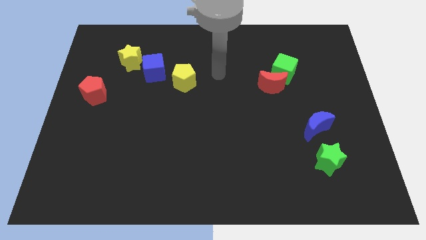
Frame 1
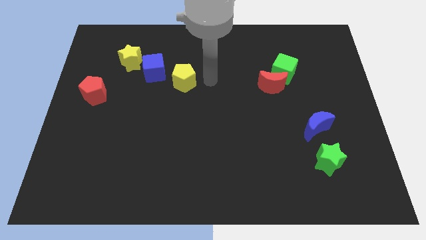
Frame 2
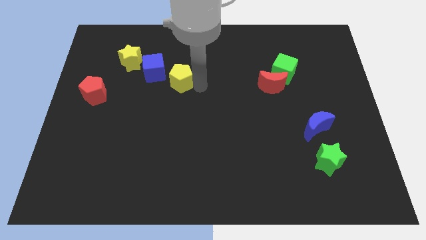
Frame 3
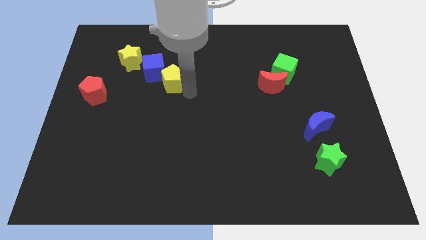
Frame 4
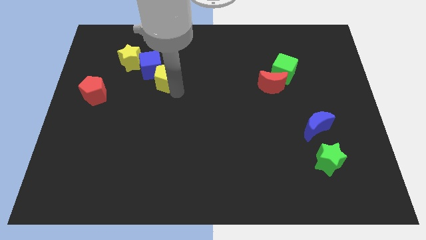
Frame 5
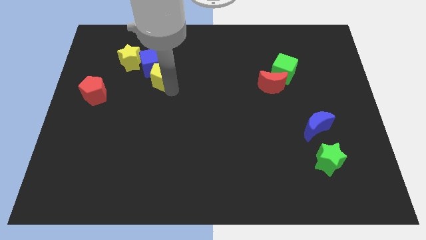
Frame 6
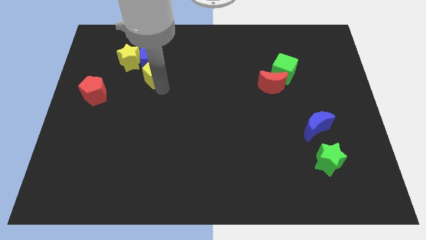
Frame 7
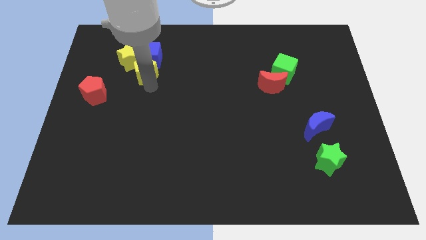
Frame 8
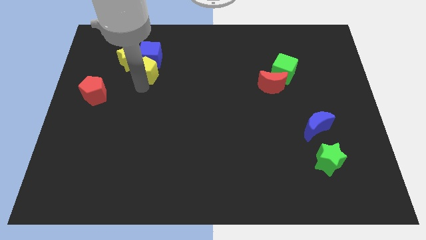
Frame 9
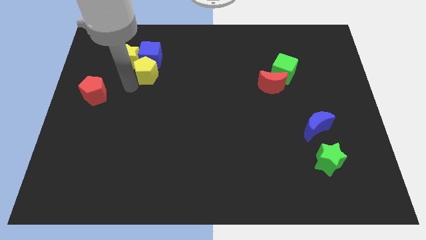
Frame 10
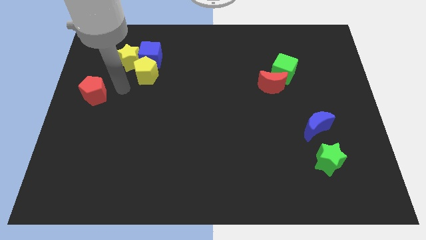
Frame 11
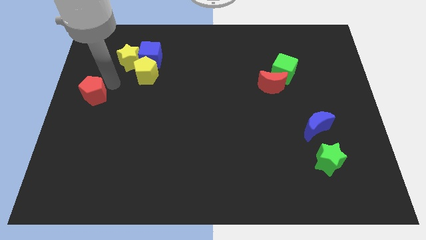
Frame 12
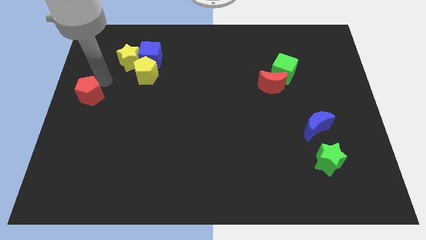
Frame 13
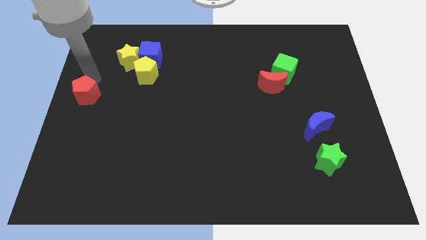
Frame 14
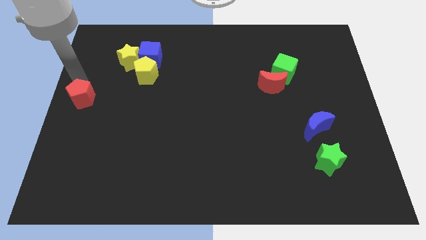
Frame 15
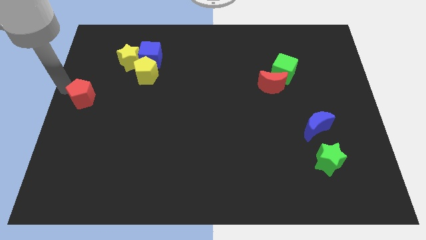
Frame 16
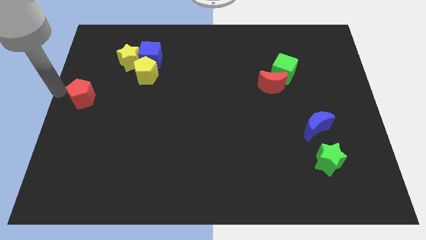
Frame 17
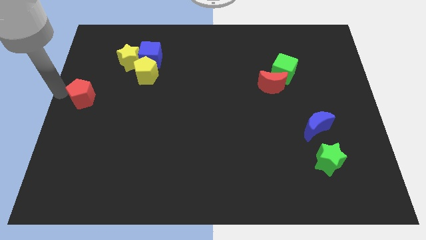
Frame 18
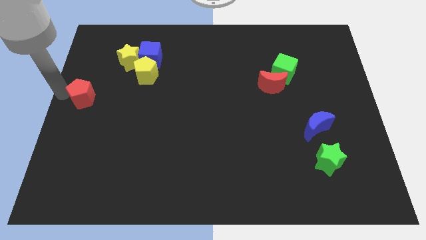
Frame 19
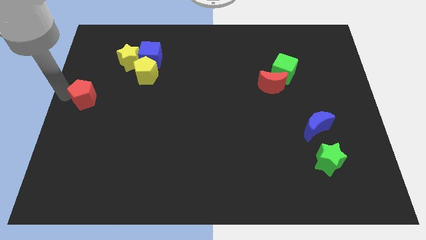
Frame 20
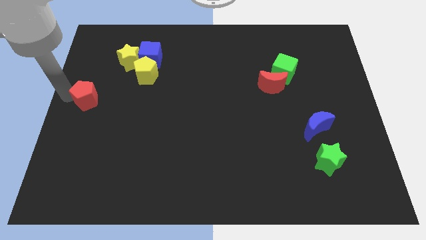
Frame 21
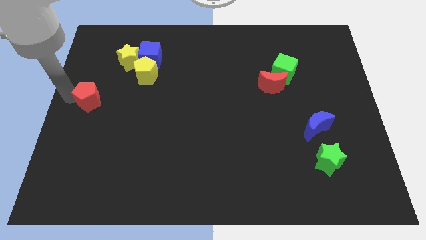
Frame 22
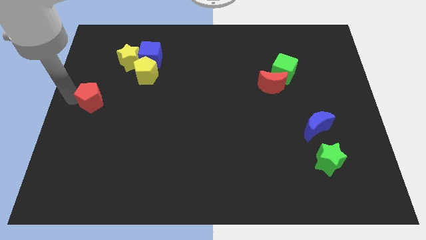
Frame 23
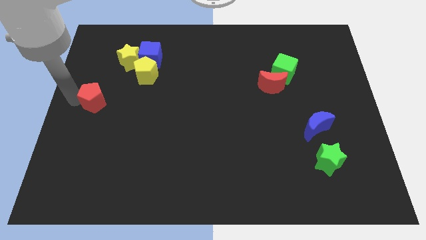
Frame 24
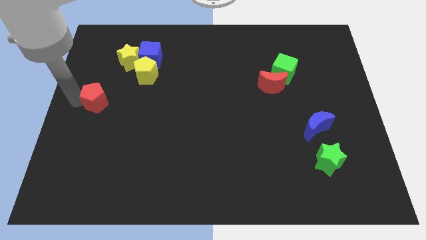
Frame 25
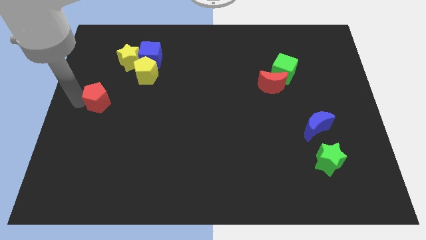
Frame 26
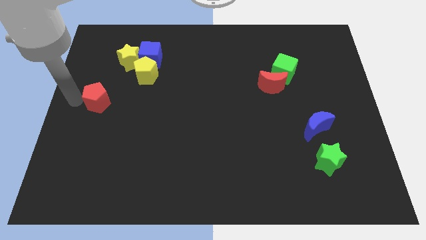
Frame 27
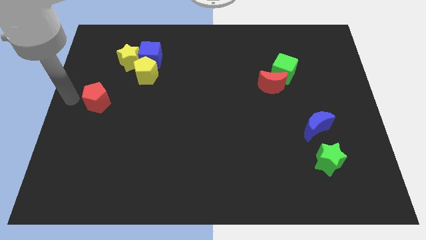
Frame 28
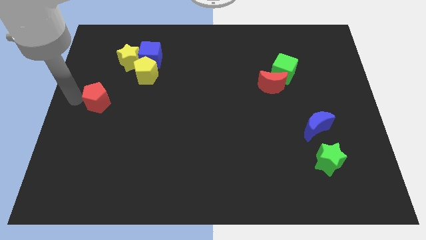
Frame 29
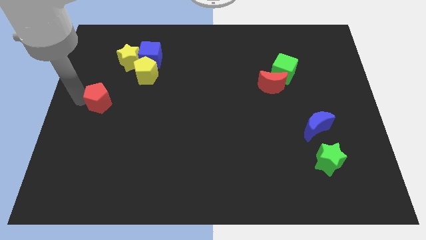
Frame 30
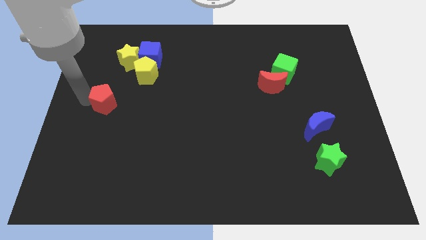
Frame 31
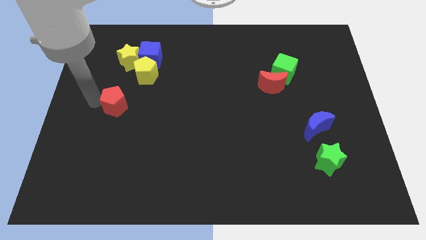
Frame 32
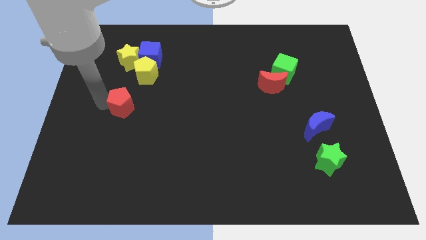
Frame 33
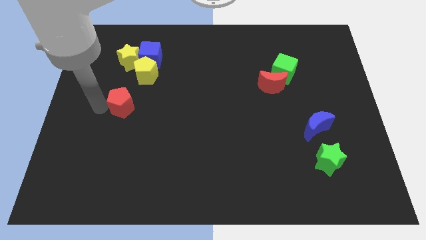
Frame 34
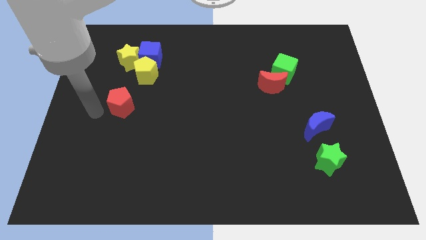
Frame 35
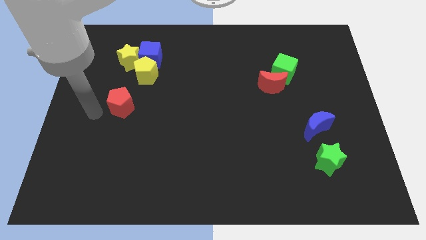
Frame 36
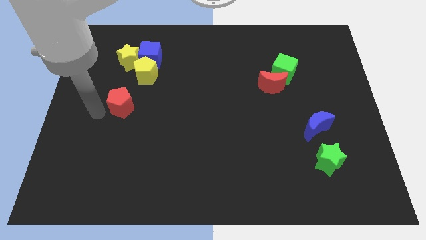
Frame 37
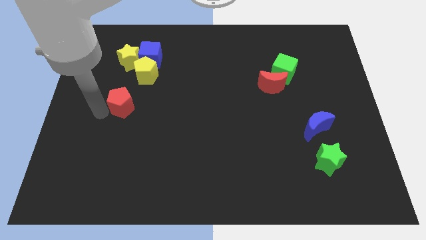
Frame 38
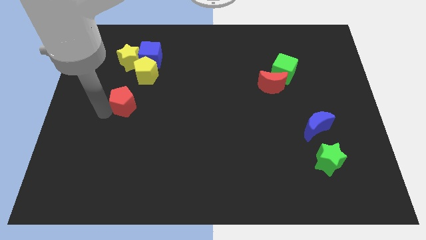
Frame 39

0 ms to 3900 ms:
slide the red pentagon a bit to the right

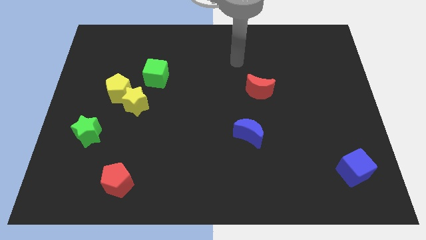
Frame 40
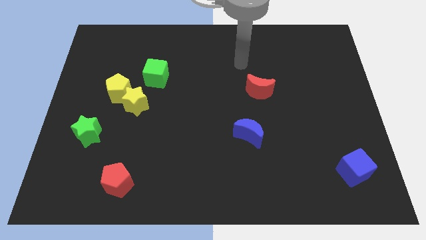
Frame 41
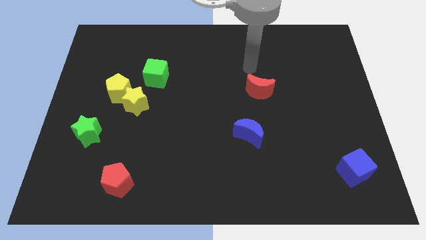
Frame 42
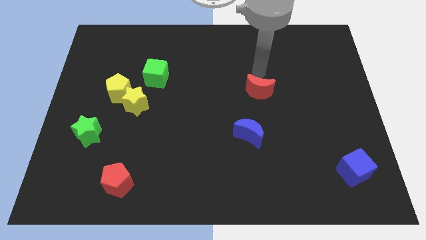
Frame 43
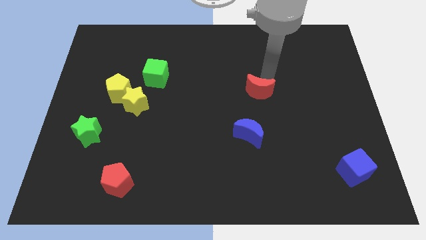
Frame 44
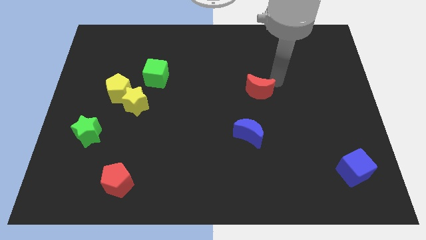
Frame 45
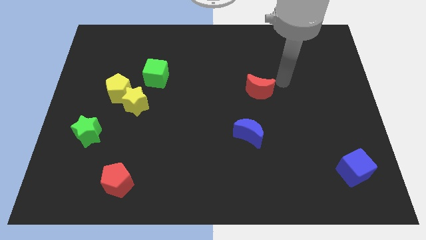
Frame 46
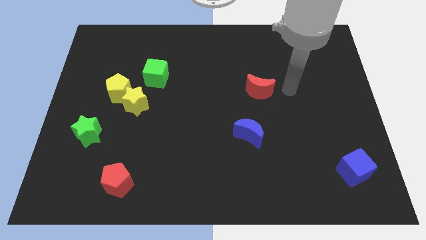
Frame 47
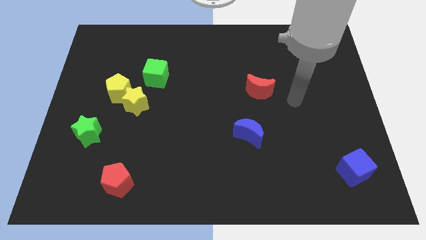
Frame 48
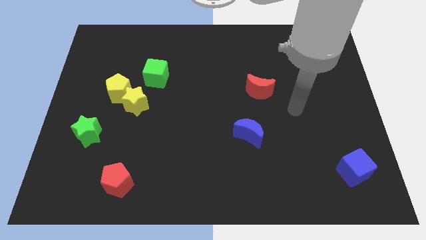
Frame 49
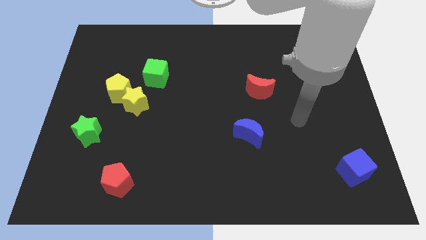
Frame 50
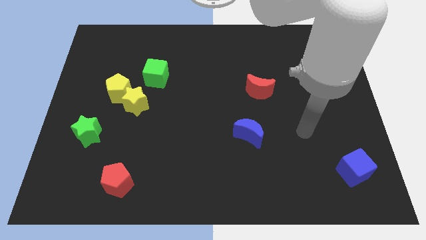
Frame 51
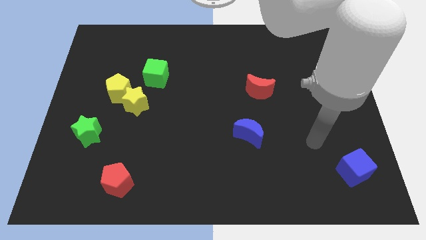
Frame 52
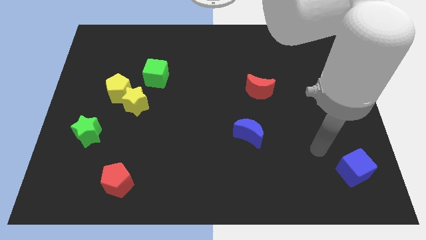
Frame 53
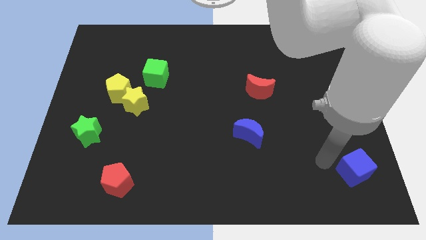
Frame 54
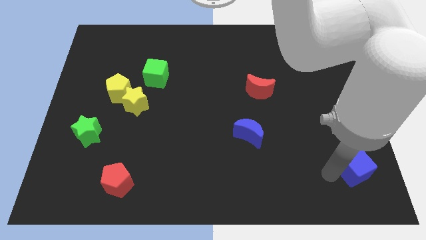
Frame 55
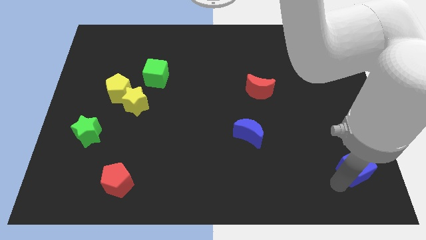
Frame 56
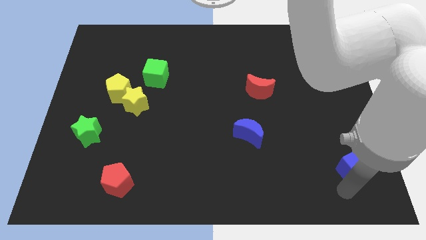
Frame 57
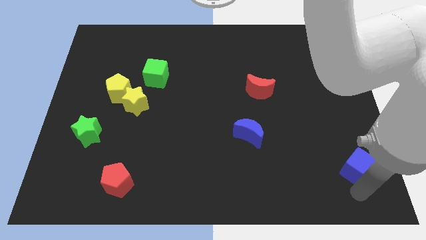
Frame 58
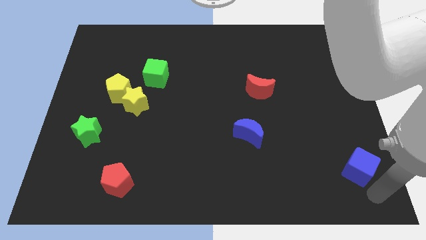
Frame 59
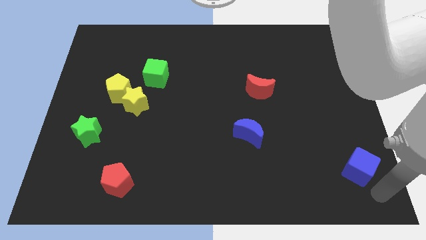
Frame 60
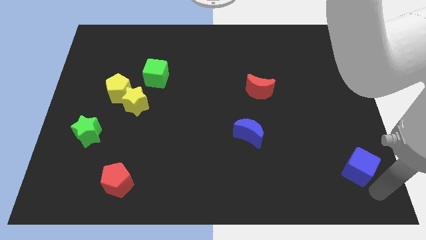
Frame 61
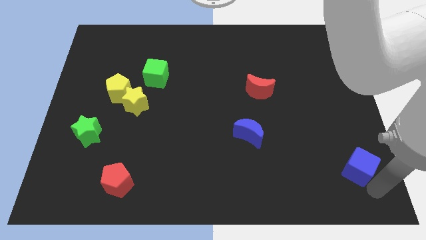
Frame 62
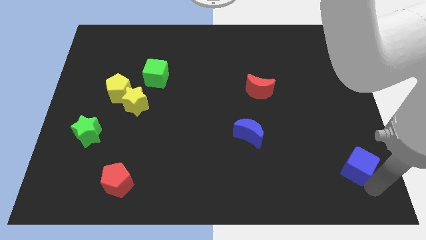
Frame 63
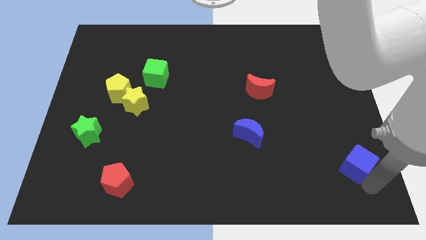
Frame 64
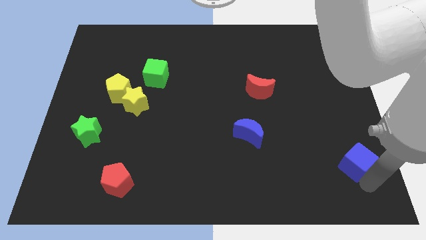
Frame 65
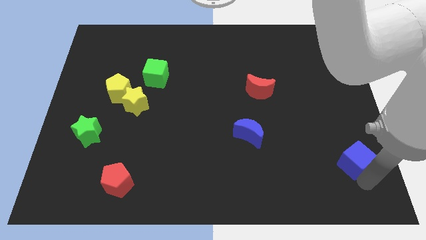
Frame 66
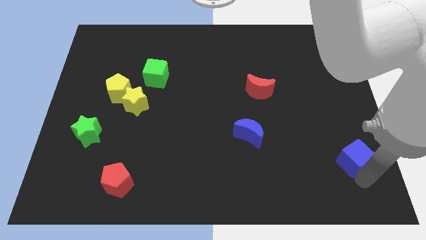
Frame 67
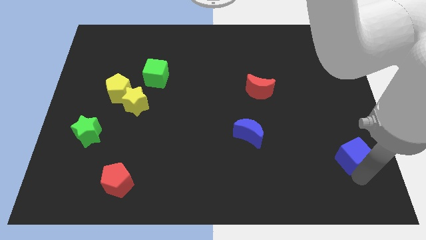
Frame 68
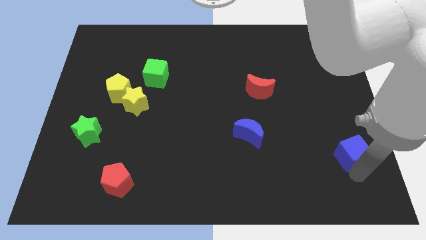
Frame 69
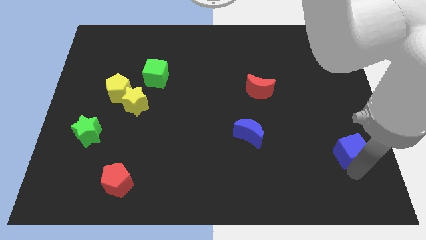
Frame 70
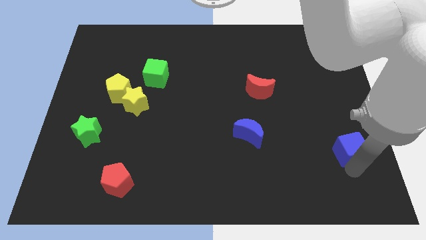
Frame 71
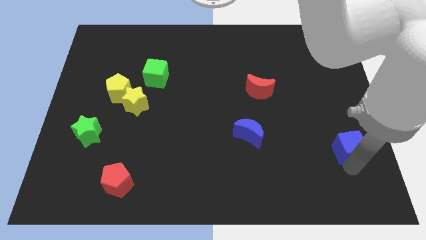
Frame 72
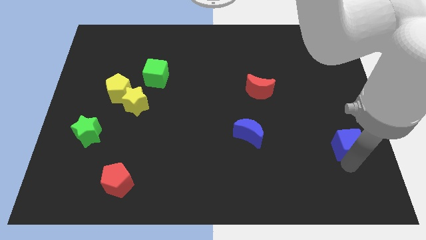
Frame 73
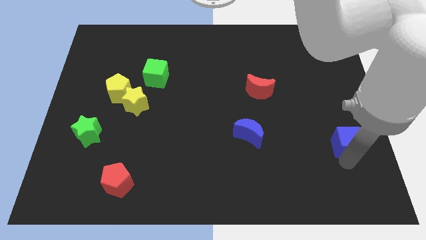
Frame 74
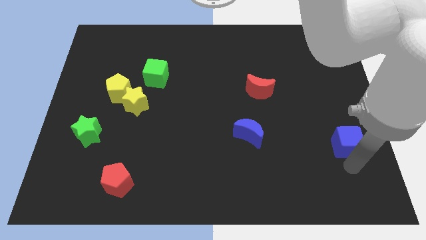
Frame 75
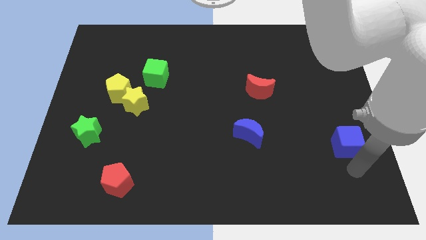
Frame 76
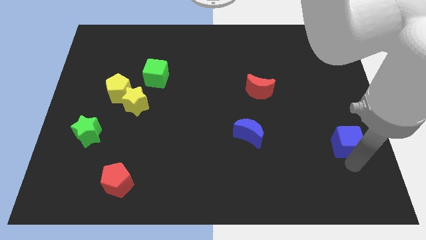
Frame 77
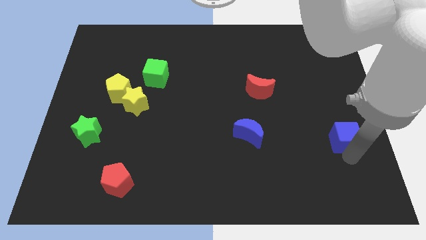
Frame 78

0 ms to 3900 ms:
slightly push the blue cube upwards
